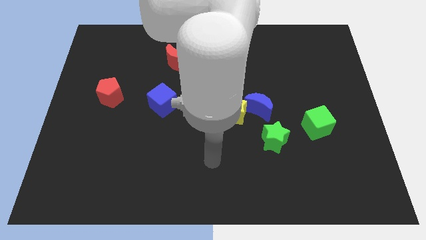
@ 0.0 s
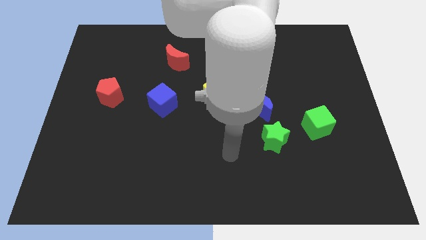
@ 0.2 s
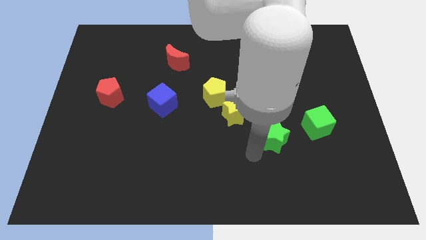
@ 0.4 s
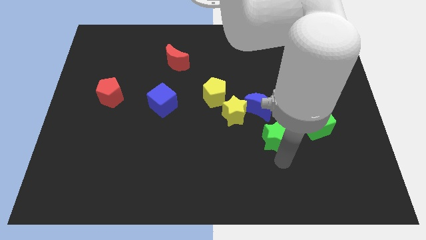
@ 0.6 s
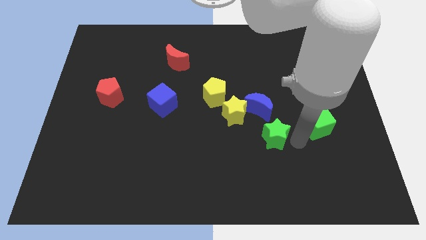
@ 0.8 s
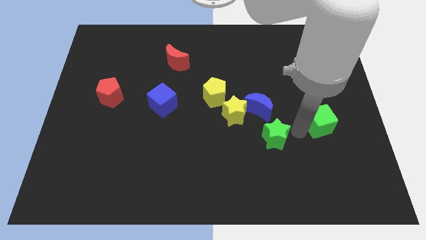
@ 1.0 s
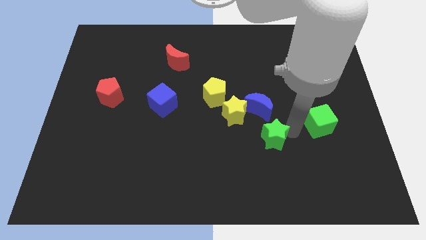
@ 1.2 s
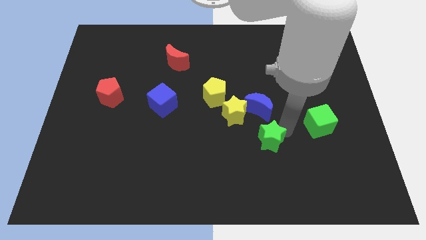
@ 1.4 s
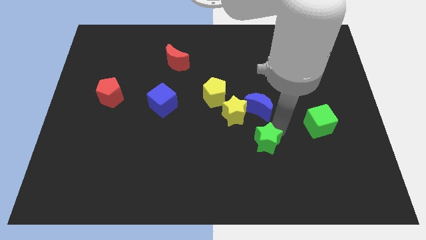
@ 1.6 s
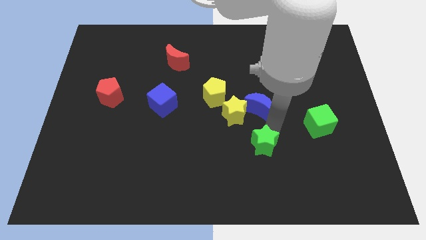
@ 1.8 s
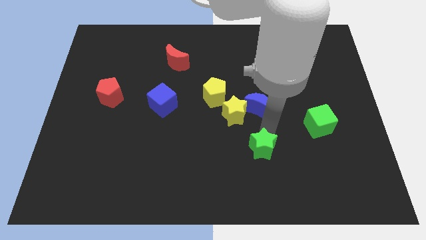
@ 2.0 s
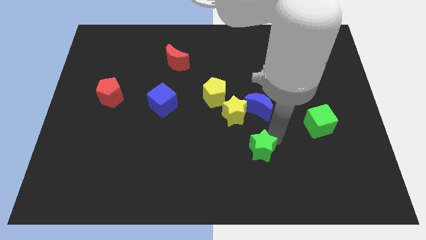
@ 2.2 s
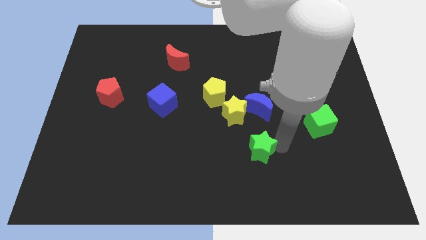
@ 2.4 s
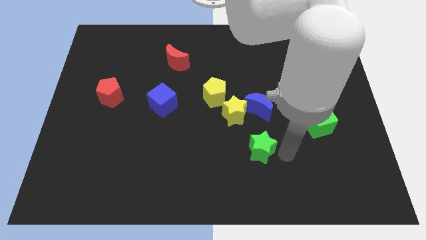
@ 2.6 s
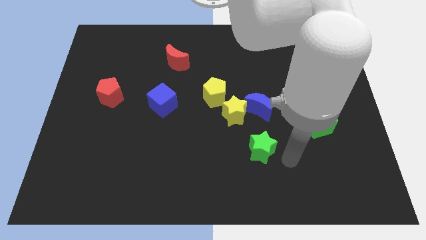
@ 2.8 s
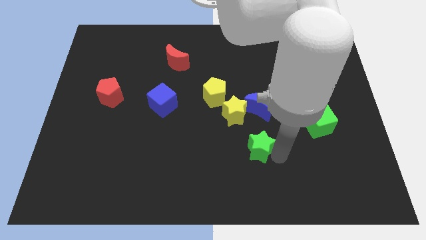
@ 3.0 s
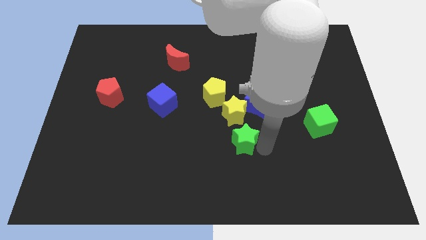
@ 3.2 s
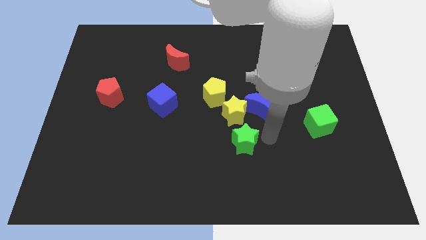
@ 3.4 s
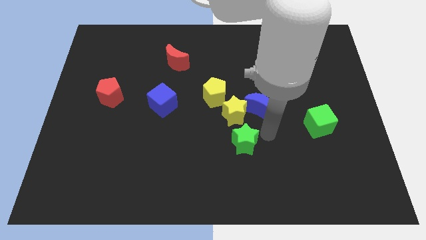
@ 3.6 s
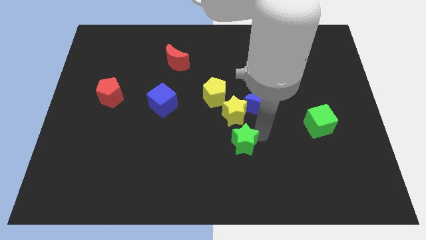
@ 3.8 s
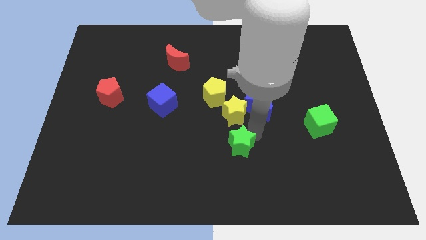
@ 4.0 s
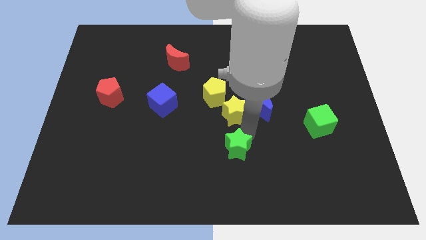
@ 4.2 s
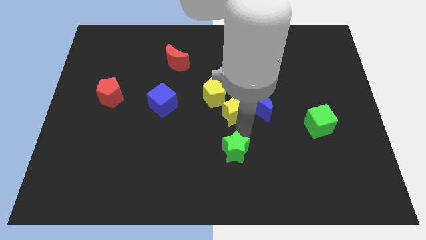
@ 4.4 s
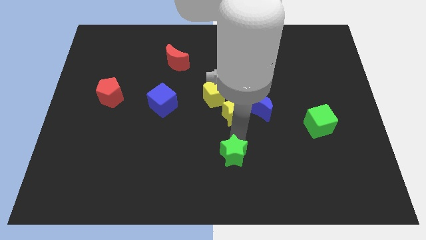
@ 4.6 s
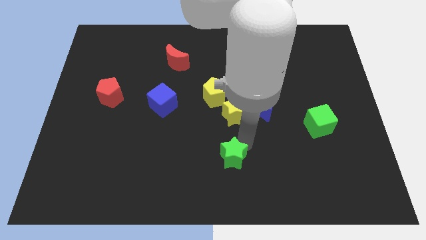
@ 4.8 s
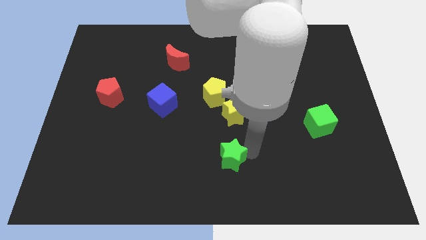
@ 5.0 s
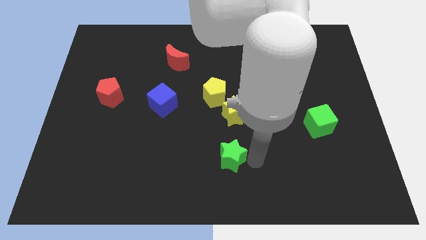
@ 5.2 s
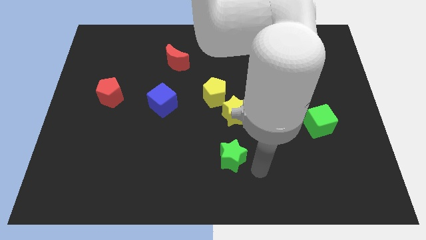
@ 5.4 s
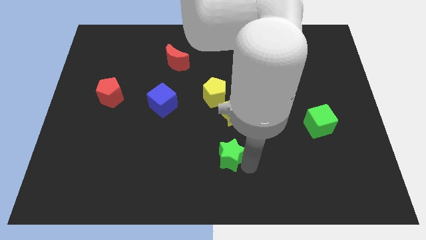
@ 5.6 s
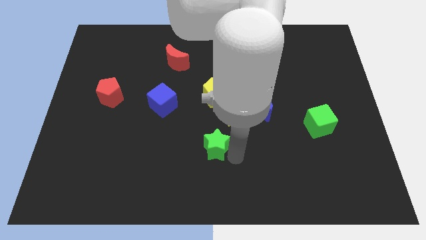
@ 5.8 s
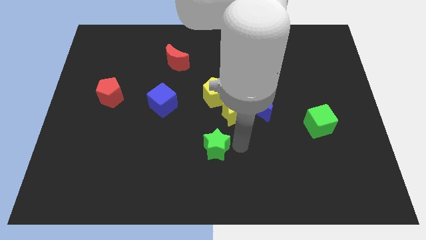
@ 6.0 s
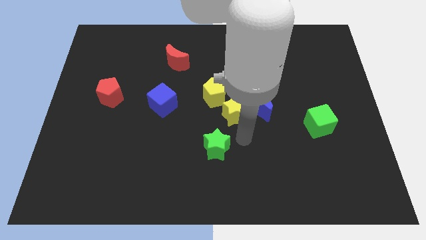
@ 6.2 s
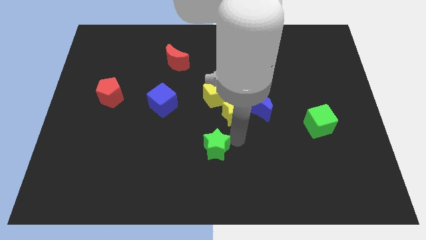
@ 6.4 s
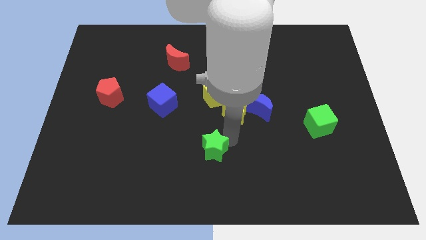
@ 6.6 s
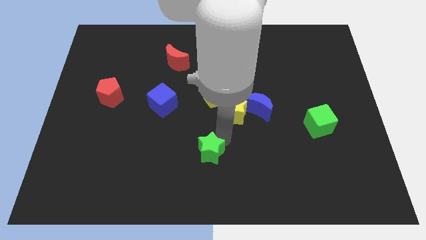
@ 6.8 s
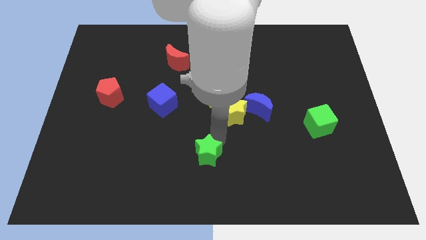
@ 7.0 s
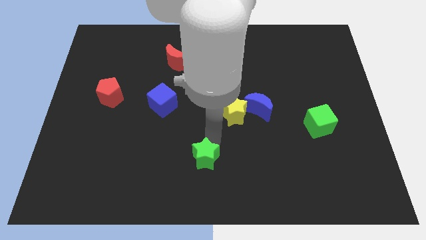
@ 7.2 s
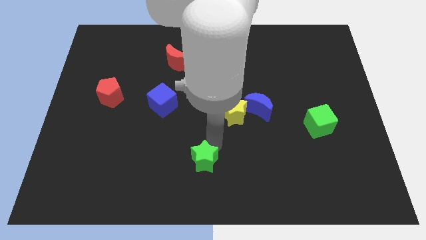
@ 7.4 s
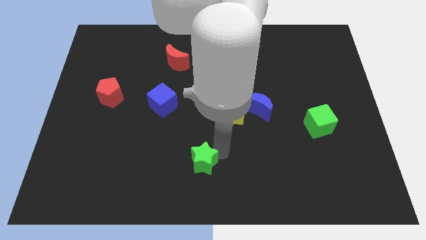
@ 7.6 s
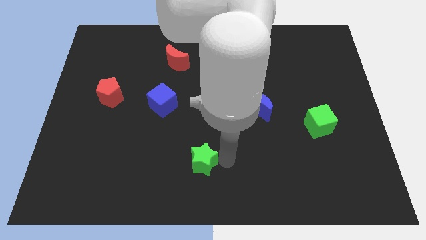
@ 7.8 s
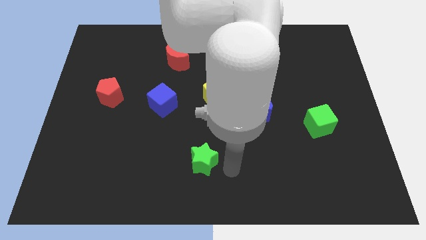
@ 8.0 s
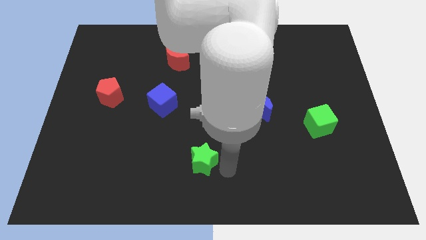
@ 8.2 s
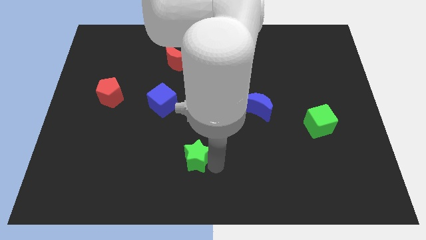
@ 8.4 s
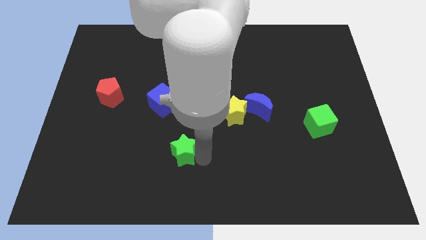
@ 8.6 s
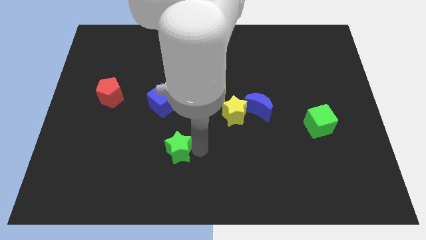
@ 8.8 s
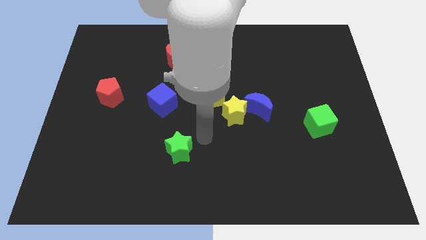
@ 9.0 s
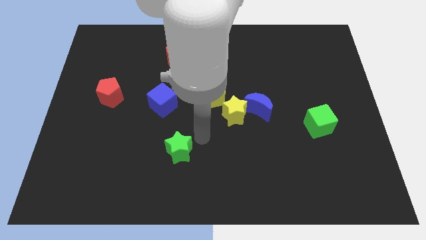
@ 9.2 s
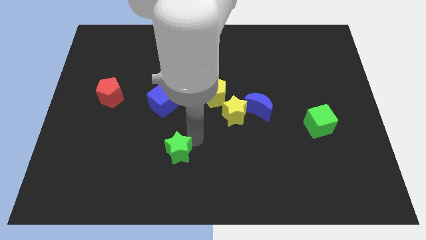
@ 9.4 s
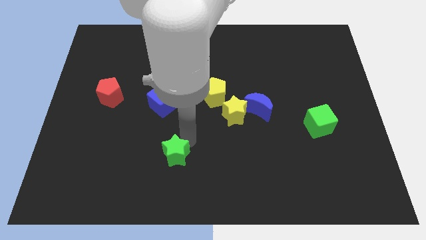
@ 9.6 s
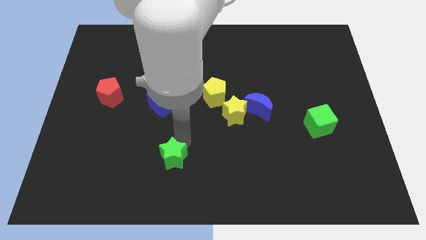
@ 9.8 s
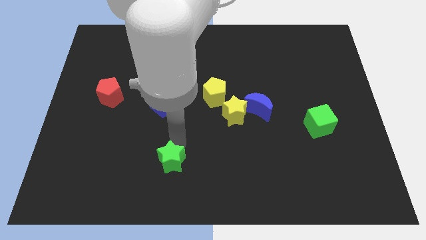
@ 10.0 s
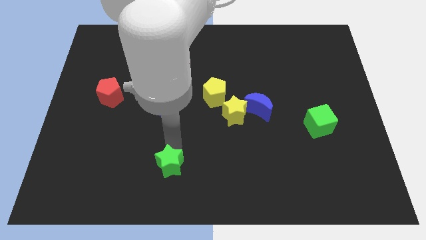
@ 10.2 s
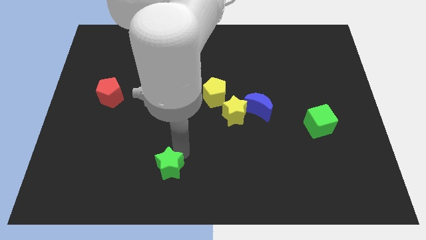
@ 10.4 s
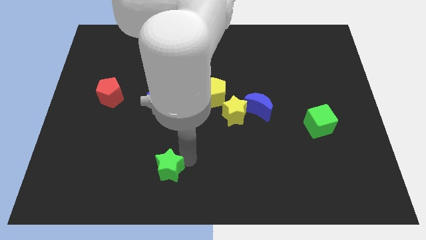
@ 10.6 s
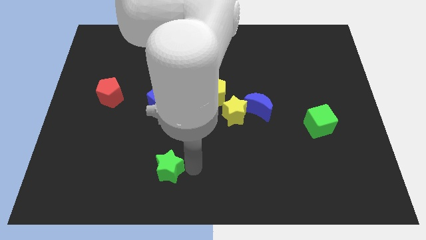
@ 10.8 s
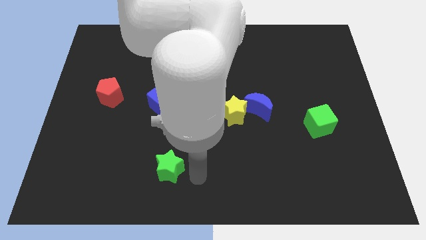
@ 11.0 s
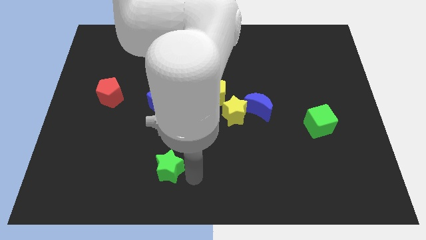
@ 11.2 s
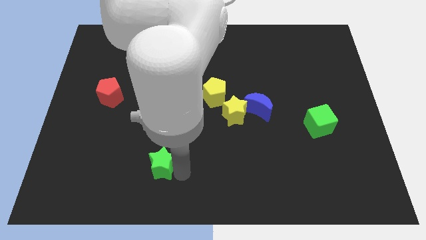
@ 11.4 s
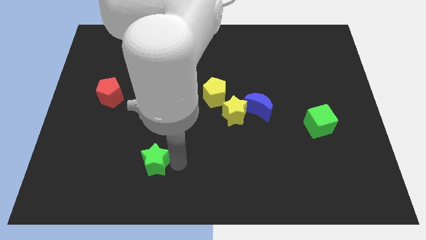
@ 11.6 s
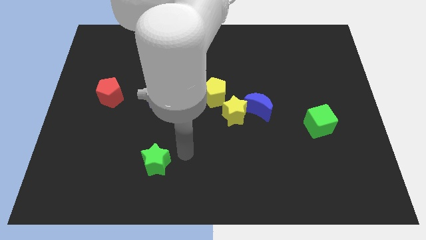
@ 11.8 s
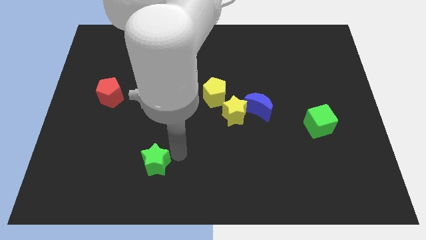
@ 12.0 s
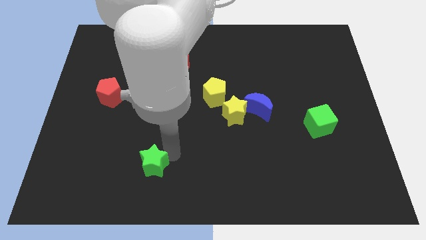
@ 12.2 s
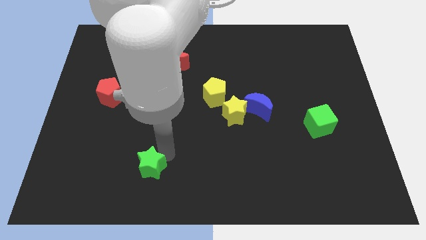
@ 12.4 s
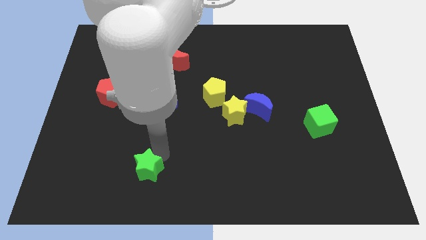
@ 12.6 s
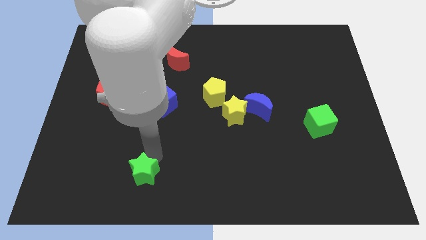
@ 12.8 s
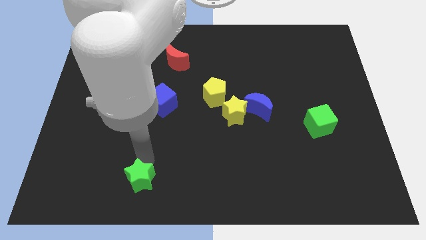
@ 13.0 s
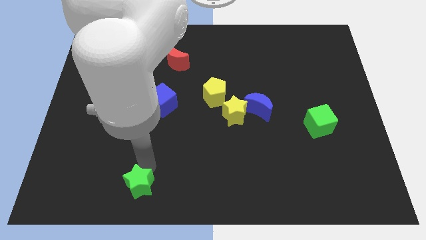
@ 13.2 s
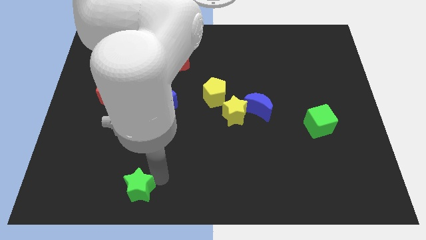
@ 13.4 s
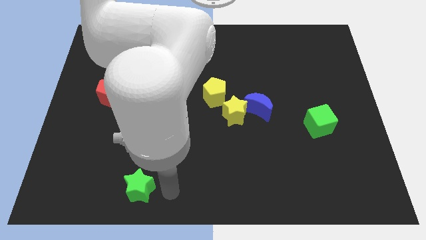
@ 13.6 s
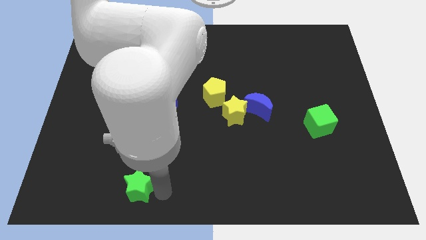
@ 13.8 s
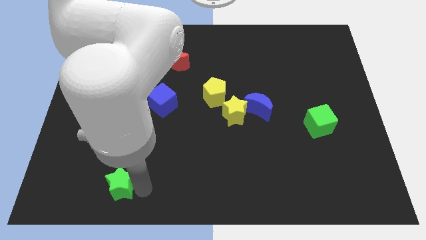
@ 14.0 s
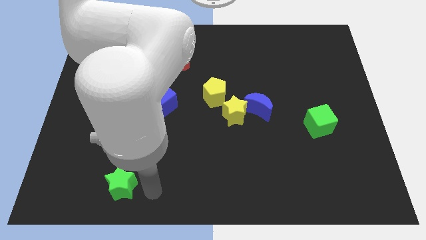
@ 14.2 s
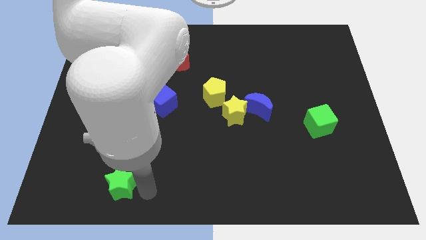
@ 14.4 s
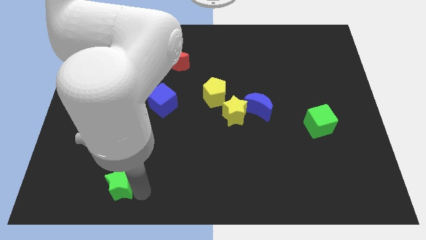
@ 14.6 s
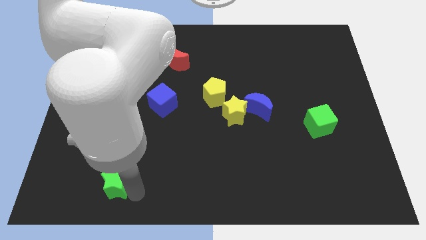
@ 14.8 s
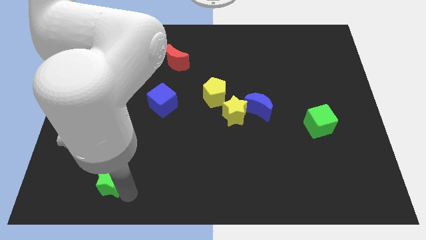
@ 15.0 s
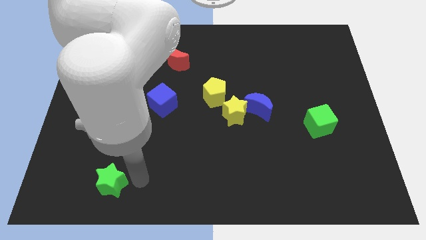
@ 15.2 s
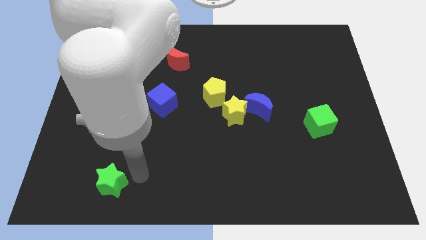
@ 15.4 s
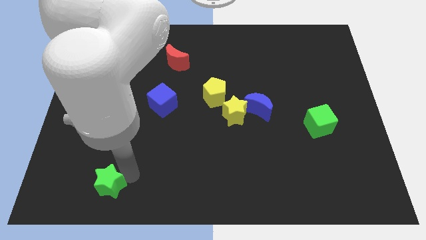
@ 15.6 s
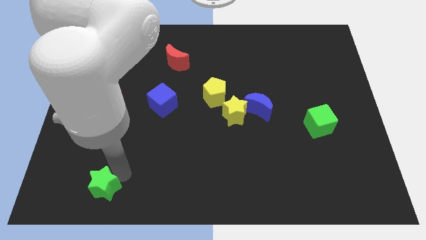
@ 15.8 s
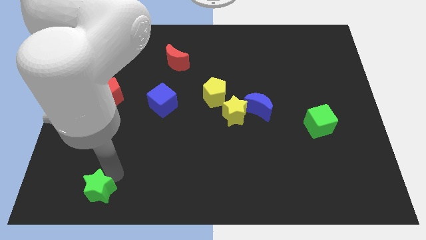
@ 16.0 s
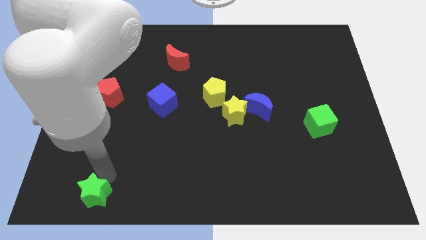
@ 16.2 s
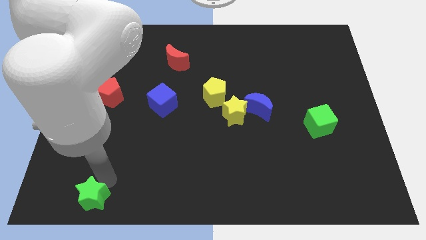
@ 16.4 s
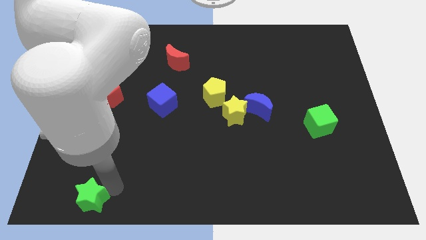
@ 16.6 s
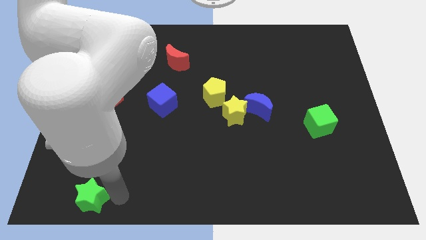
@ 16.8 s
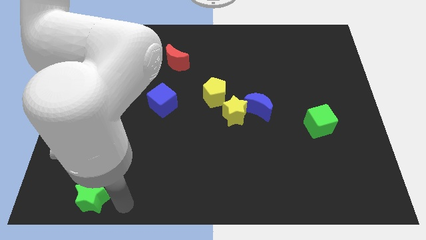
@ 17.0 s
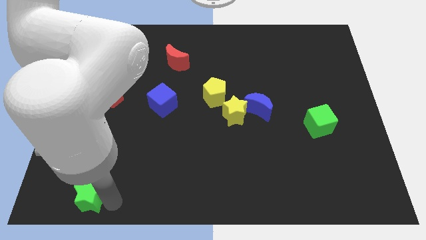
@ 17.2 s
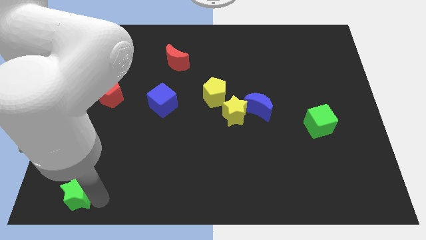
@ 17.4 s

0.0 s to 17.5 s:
slide the green star to the bottom left of the board
